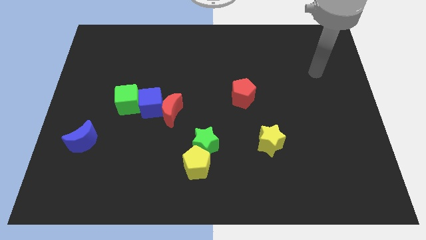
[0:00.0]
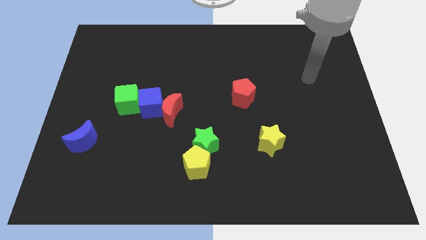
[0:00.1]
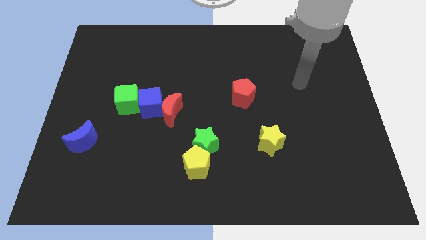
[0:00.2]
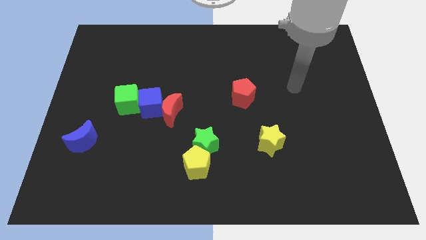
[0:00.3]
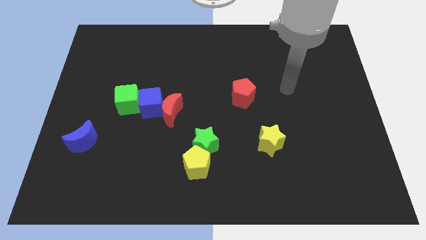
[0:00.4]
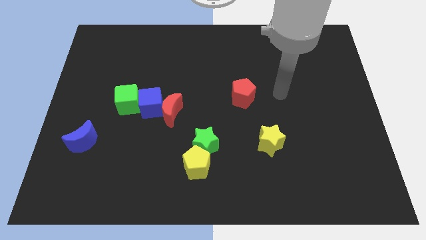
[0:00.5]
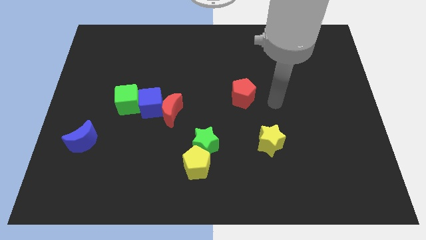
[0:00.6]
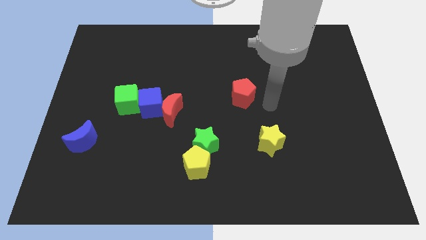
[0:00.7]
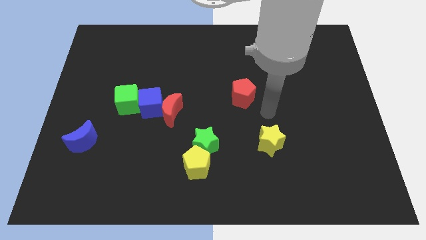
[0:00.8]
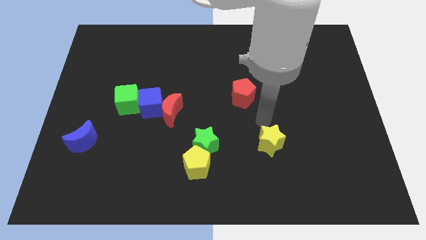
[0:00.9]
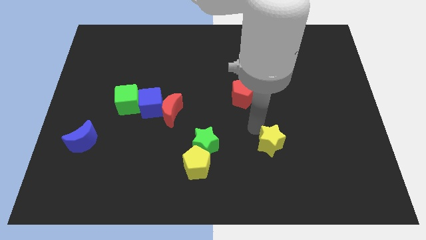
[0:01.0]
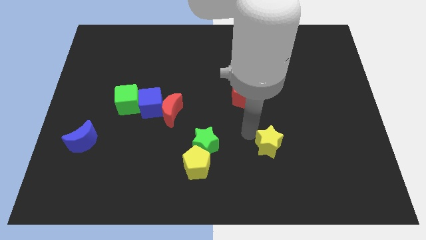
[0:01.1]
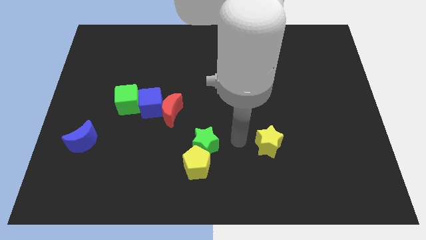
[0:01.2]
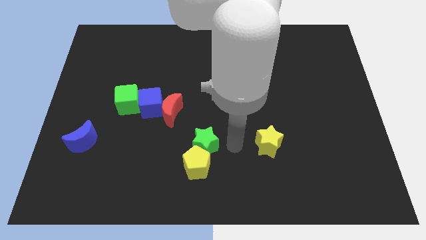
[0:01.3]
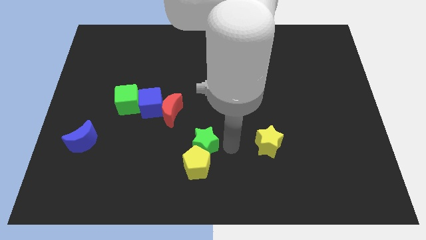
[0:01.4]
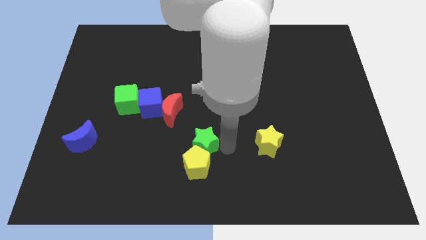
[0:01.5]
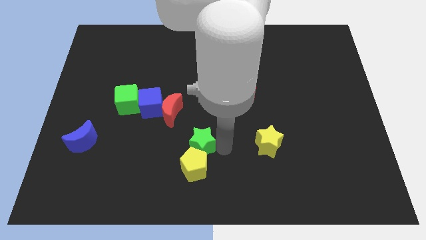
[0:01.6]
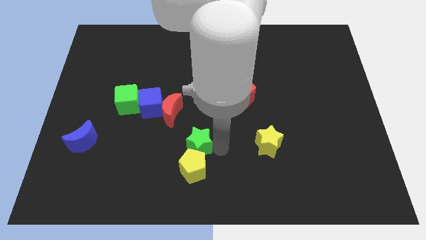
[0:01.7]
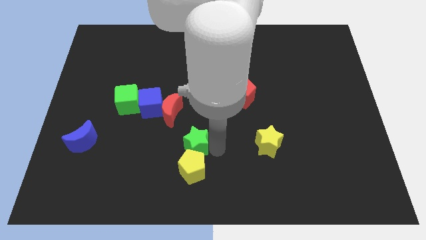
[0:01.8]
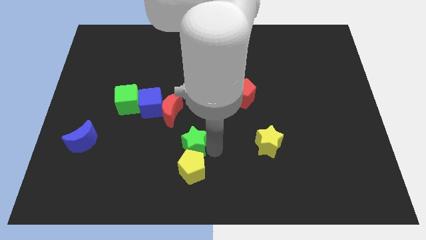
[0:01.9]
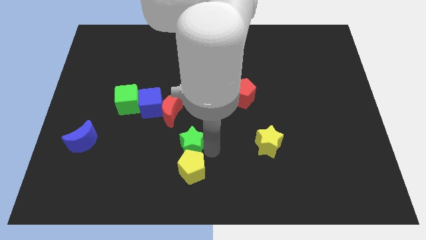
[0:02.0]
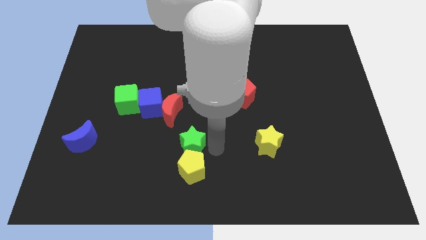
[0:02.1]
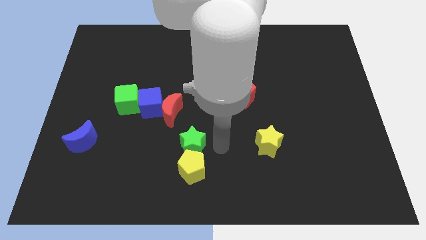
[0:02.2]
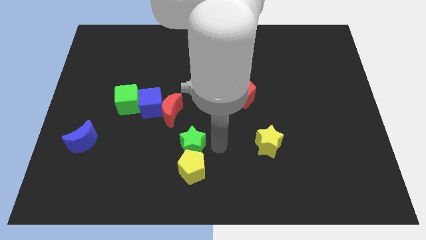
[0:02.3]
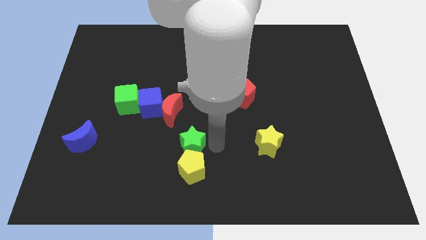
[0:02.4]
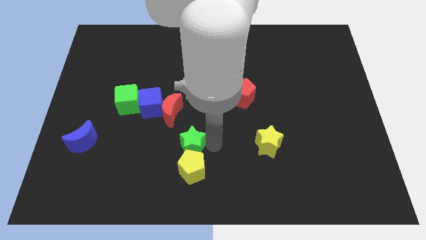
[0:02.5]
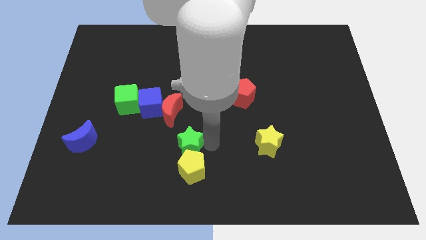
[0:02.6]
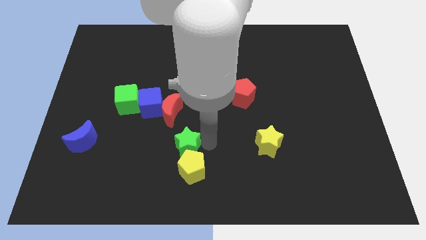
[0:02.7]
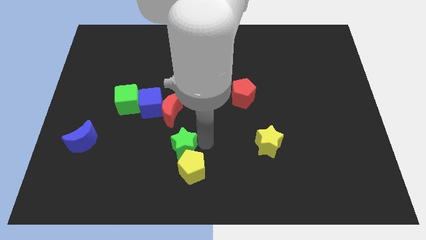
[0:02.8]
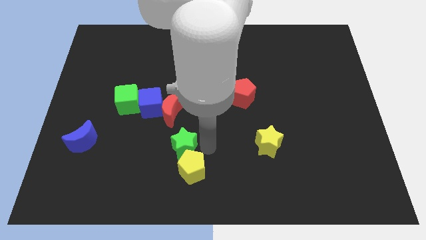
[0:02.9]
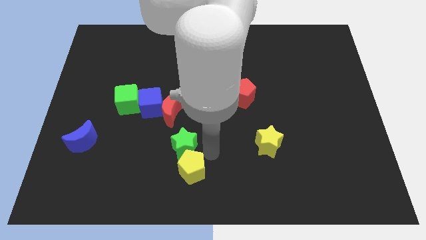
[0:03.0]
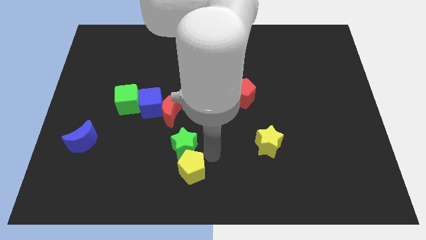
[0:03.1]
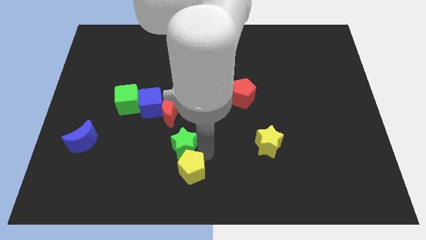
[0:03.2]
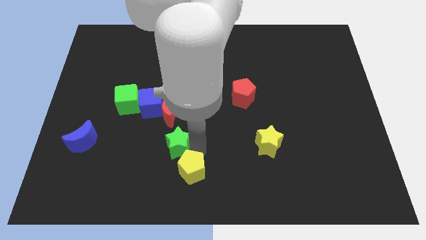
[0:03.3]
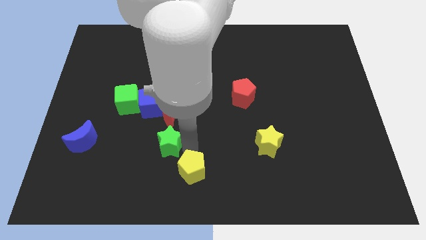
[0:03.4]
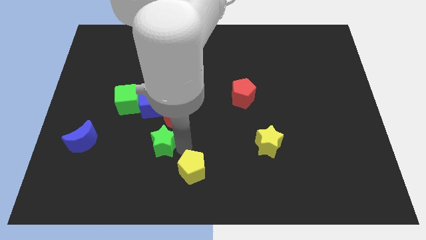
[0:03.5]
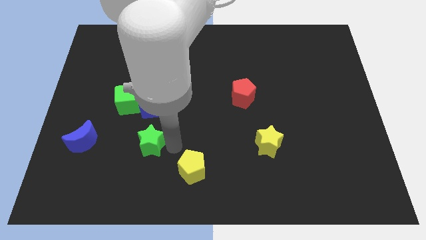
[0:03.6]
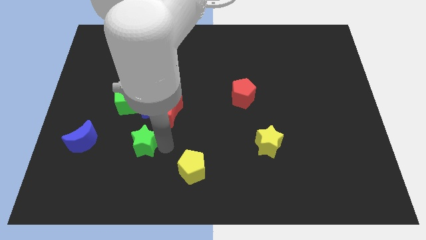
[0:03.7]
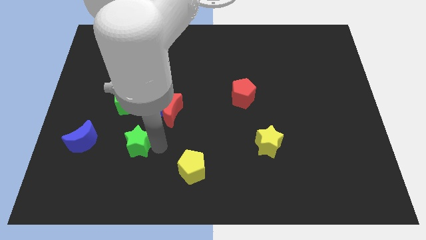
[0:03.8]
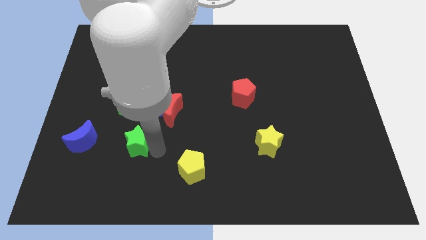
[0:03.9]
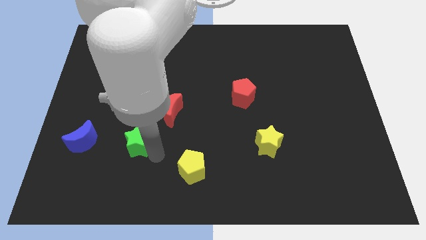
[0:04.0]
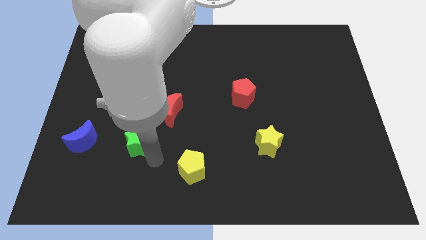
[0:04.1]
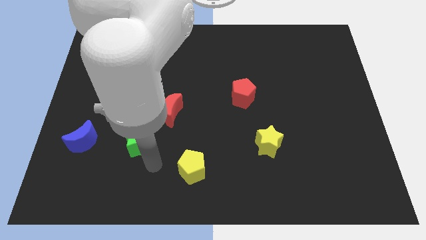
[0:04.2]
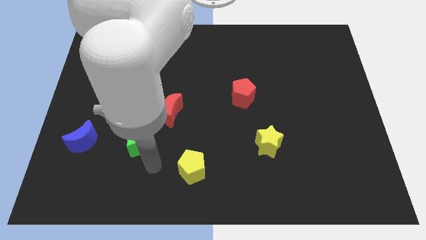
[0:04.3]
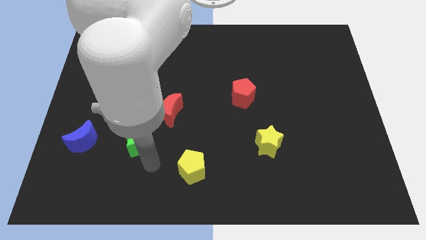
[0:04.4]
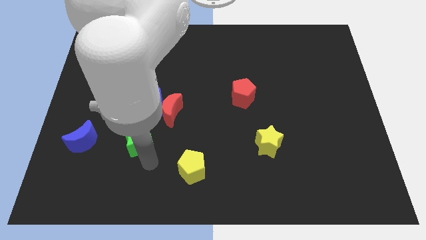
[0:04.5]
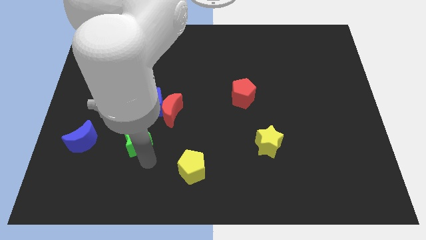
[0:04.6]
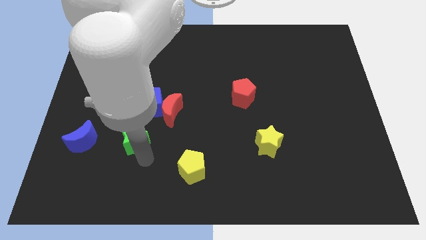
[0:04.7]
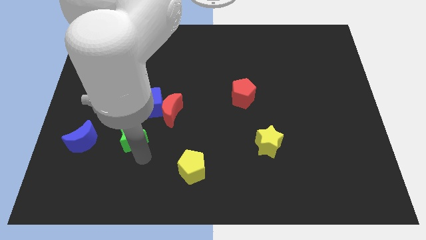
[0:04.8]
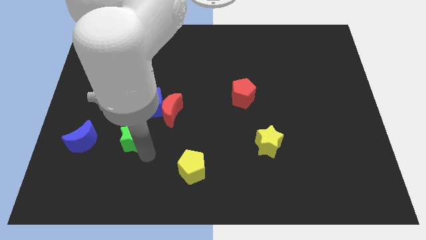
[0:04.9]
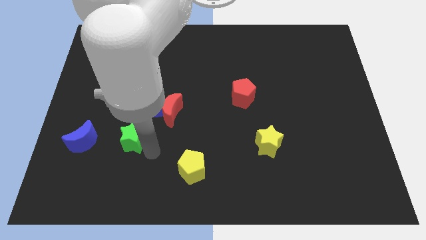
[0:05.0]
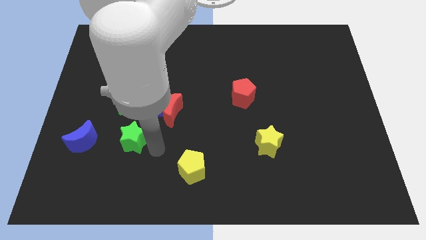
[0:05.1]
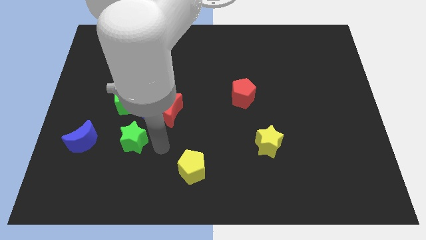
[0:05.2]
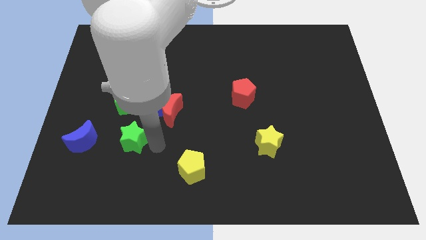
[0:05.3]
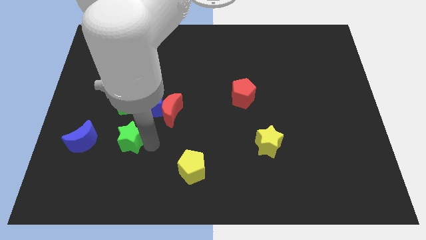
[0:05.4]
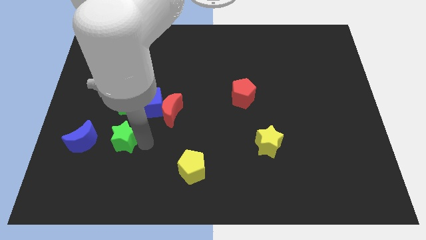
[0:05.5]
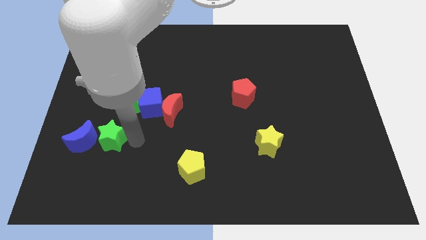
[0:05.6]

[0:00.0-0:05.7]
push the green star next to the blue moon

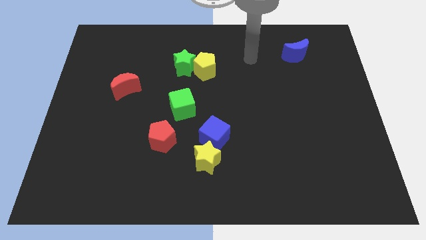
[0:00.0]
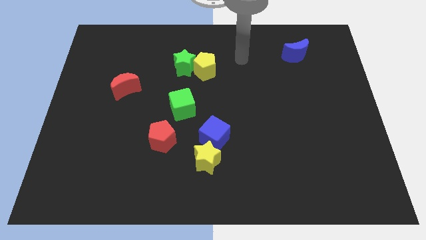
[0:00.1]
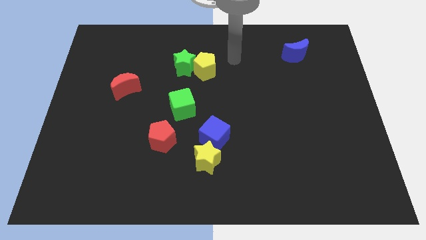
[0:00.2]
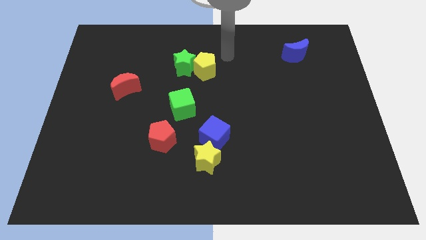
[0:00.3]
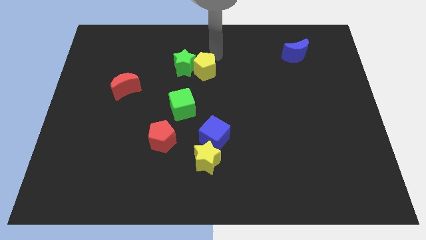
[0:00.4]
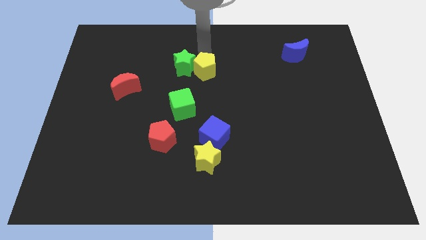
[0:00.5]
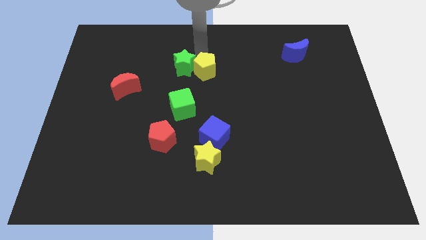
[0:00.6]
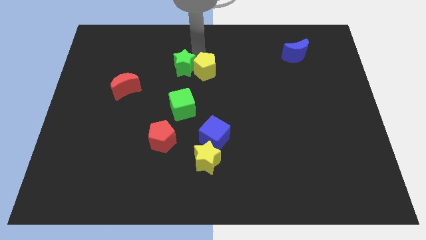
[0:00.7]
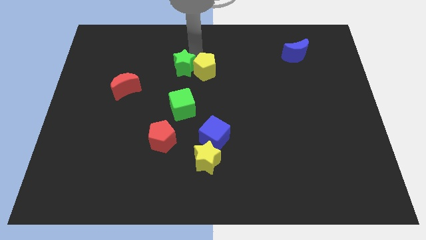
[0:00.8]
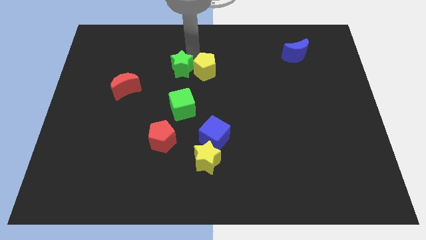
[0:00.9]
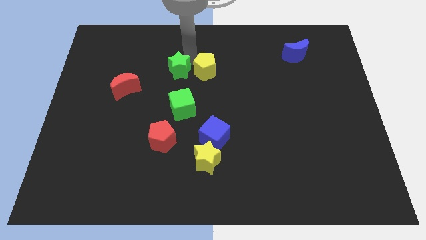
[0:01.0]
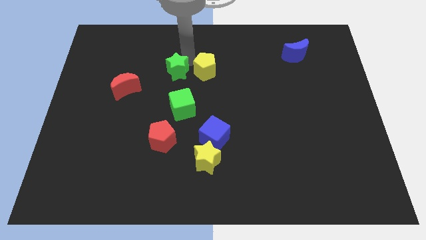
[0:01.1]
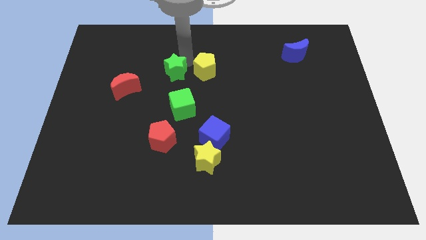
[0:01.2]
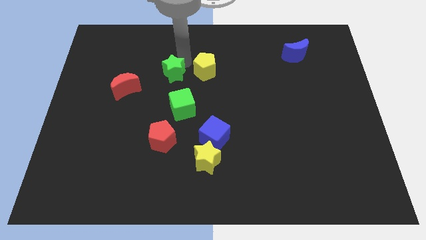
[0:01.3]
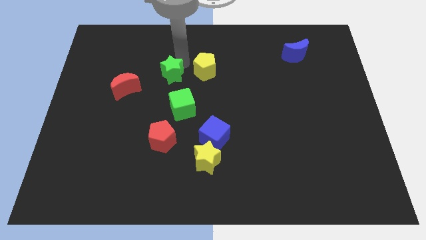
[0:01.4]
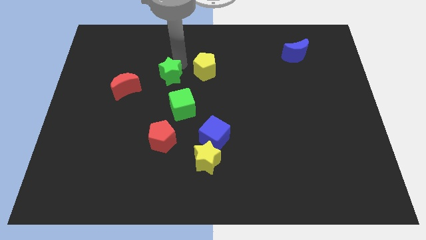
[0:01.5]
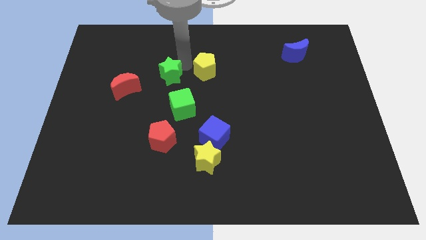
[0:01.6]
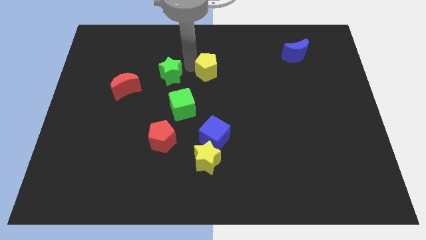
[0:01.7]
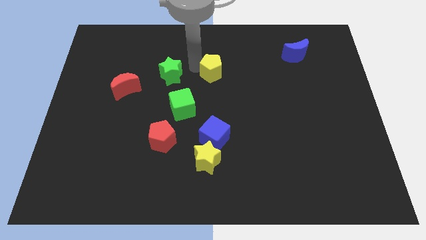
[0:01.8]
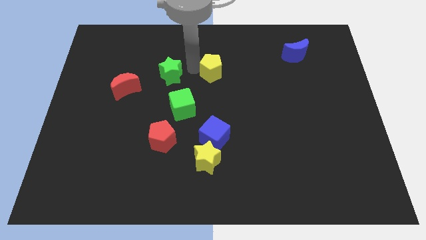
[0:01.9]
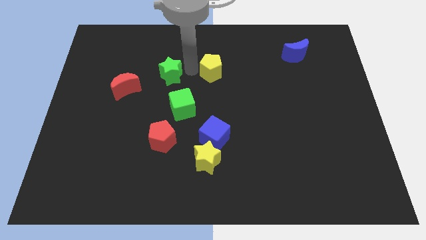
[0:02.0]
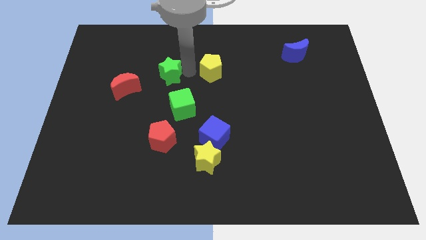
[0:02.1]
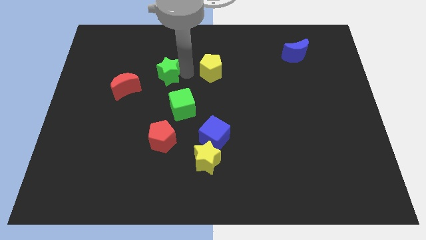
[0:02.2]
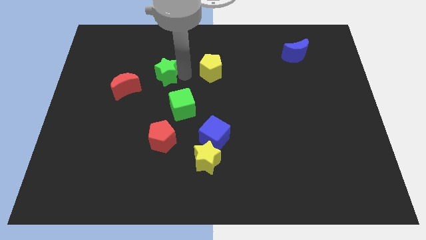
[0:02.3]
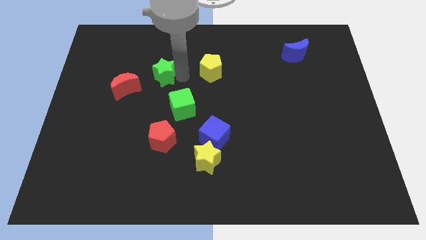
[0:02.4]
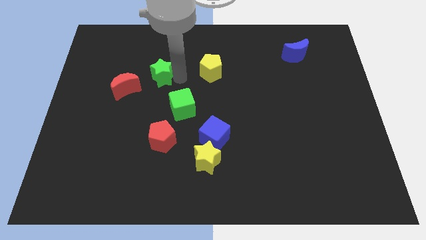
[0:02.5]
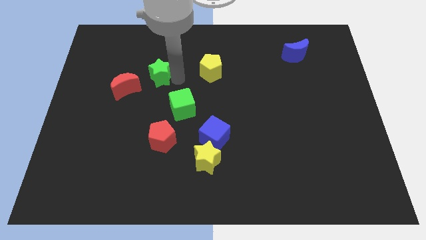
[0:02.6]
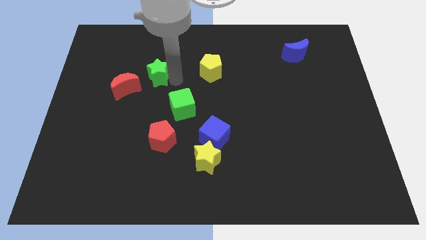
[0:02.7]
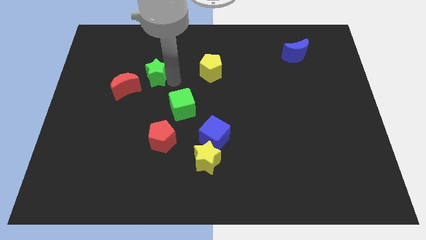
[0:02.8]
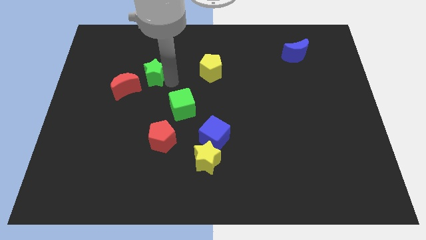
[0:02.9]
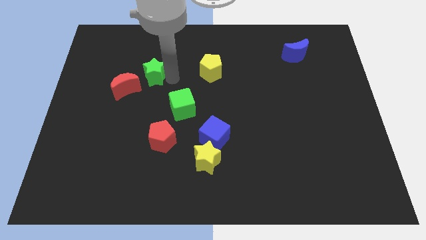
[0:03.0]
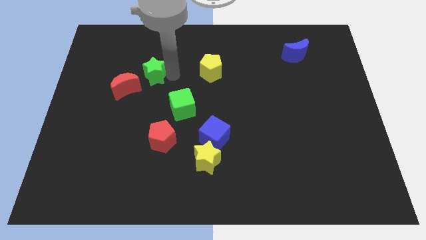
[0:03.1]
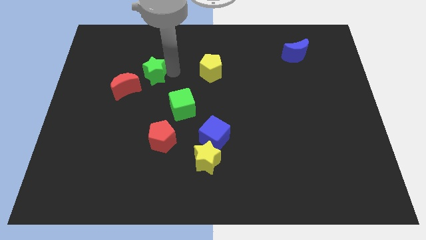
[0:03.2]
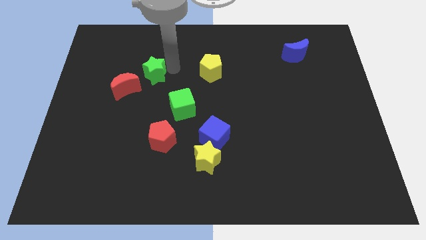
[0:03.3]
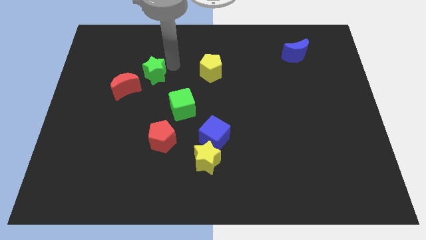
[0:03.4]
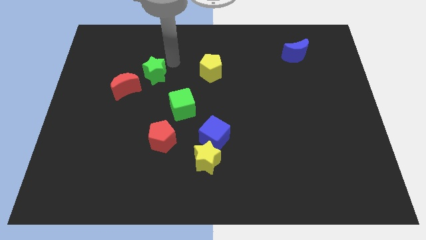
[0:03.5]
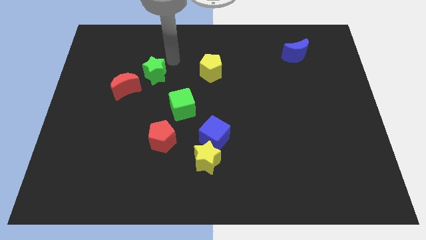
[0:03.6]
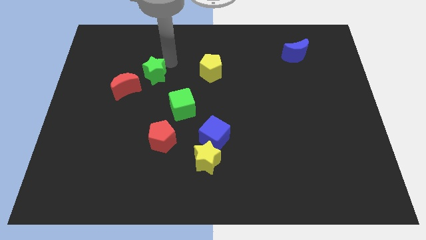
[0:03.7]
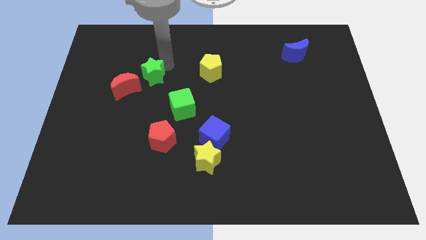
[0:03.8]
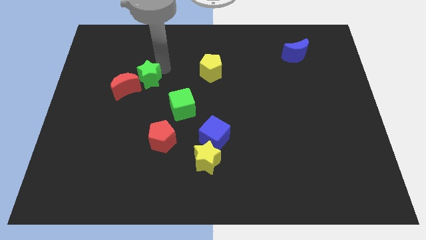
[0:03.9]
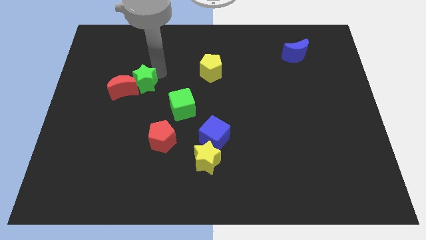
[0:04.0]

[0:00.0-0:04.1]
move the green star to the red moon
